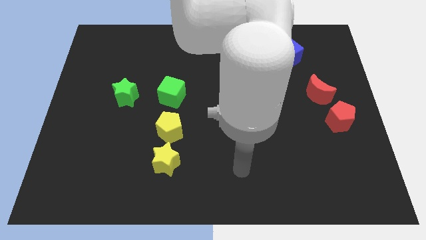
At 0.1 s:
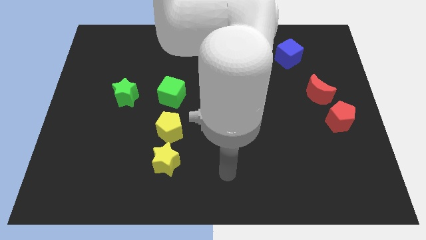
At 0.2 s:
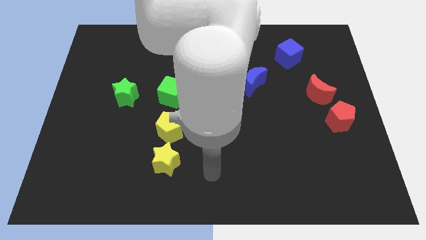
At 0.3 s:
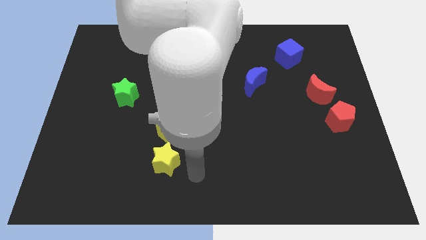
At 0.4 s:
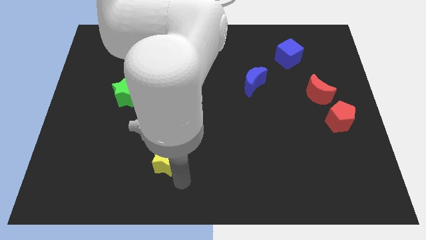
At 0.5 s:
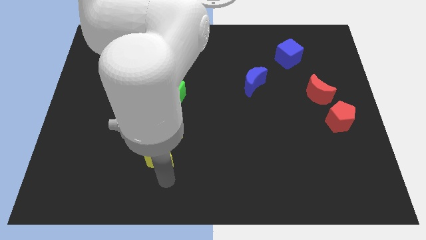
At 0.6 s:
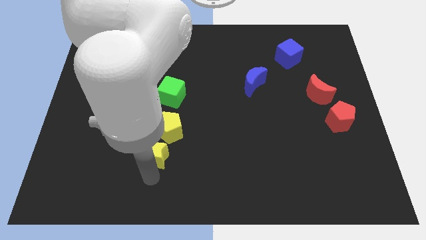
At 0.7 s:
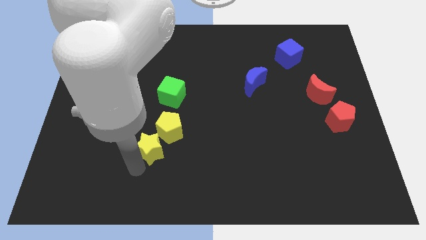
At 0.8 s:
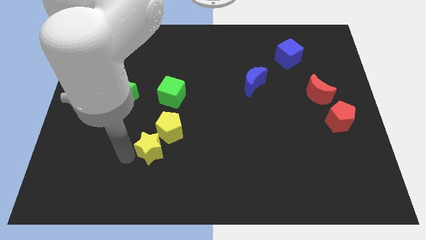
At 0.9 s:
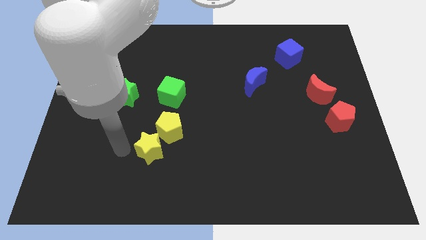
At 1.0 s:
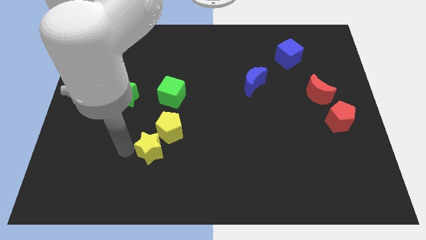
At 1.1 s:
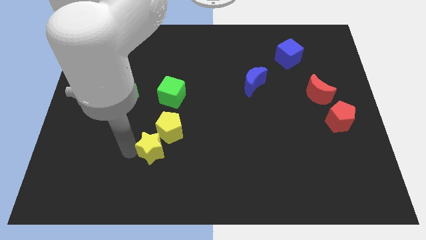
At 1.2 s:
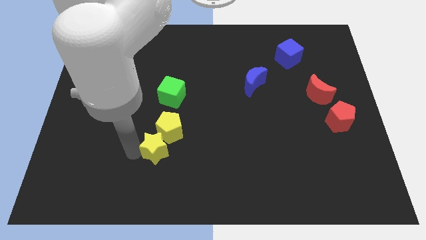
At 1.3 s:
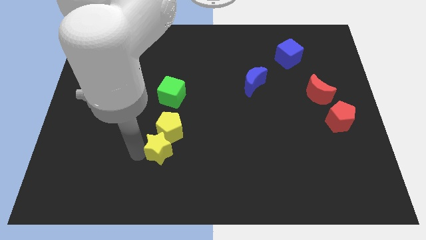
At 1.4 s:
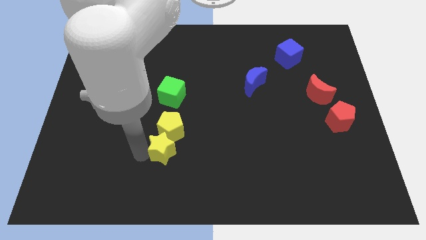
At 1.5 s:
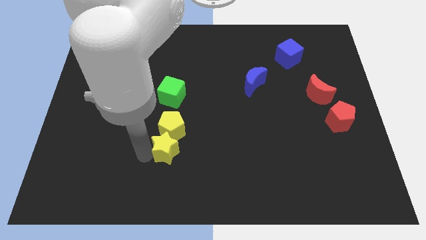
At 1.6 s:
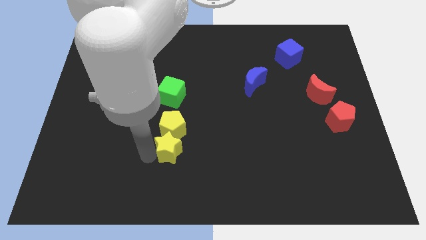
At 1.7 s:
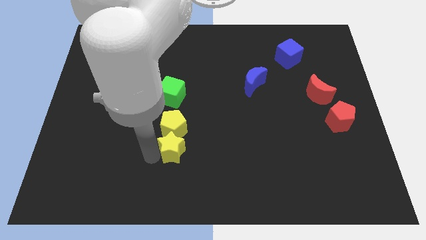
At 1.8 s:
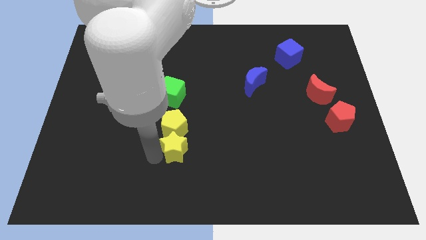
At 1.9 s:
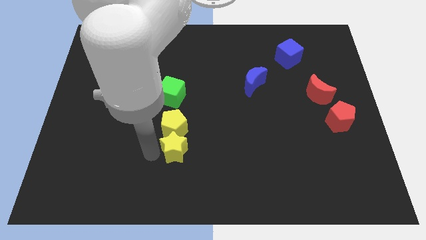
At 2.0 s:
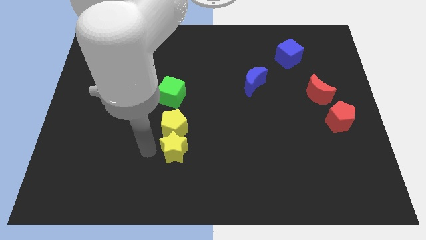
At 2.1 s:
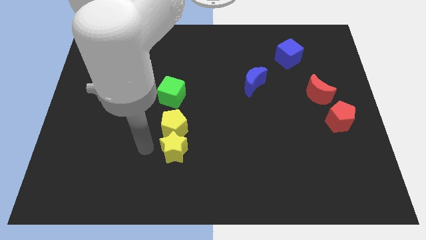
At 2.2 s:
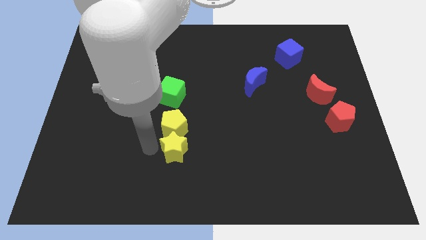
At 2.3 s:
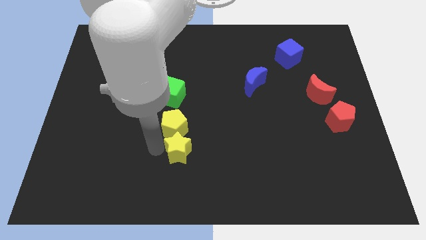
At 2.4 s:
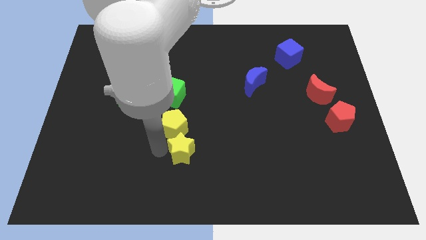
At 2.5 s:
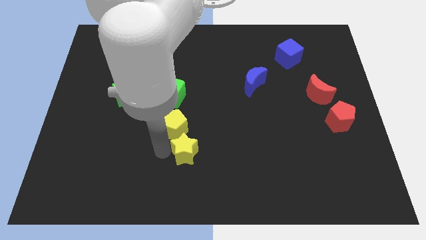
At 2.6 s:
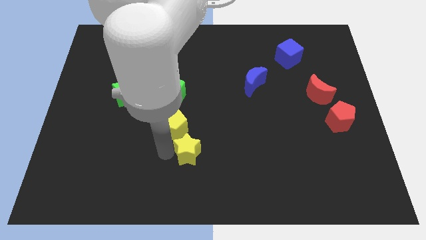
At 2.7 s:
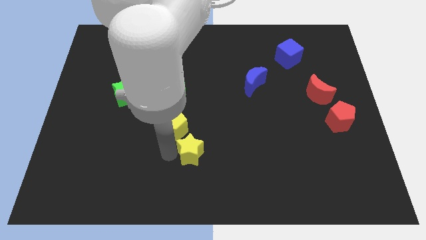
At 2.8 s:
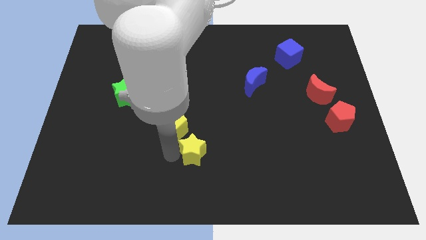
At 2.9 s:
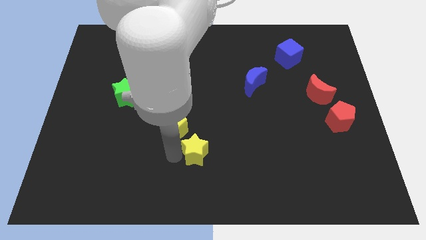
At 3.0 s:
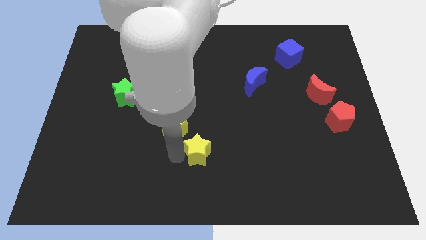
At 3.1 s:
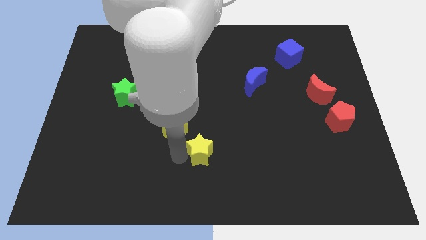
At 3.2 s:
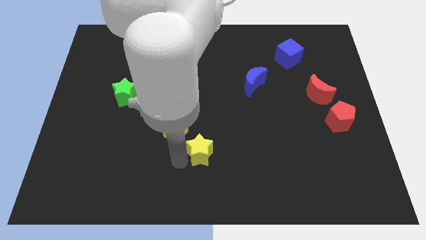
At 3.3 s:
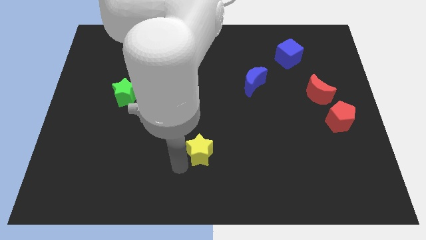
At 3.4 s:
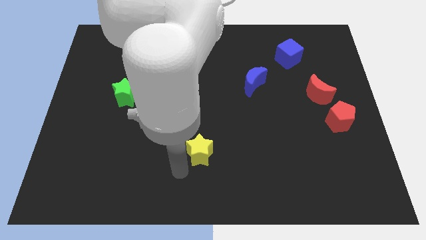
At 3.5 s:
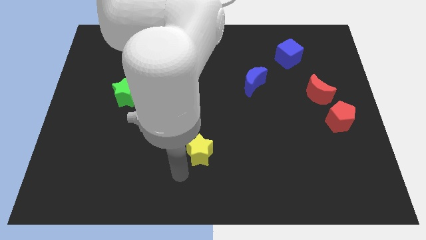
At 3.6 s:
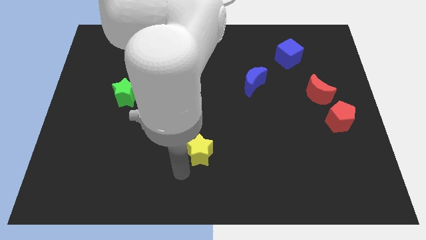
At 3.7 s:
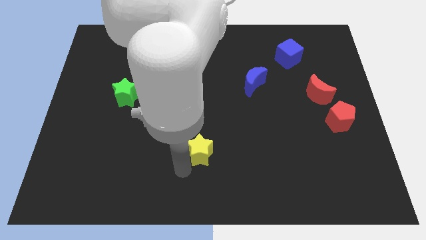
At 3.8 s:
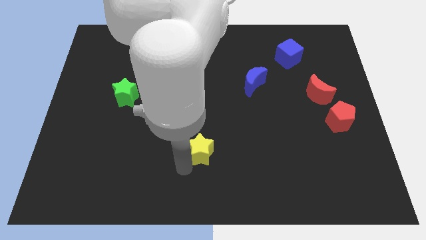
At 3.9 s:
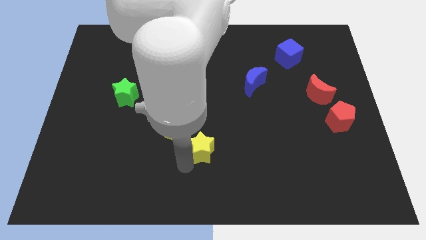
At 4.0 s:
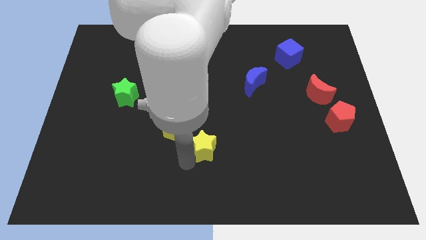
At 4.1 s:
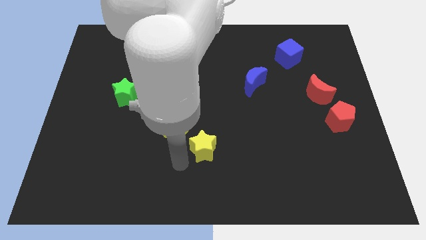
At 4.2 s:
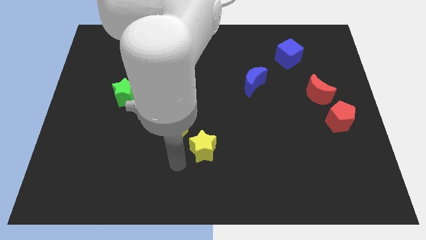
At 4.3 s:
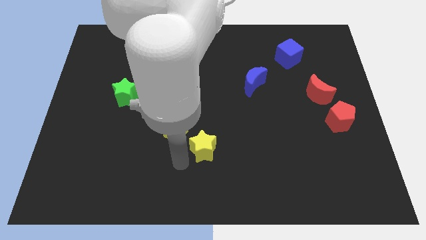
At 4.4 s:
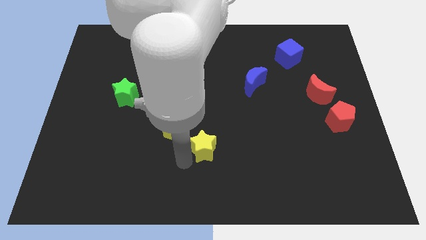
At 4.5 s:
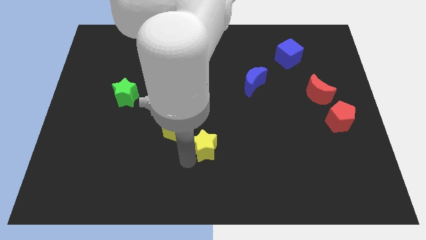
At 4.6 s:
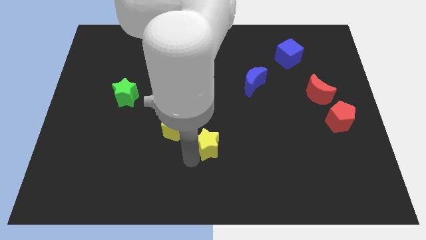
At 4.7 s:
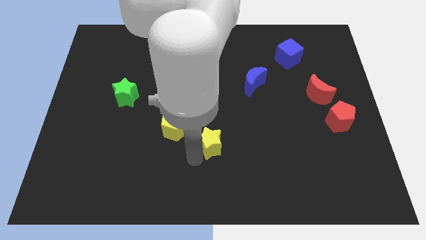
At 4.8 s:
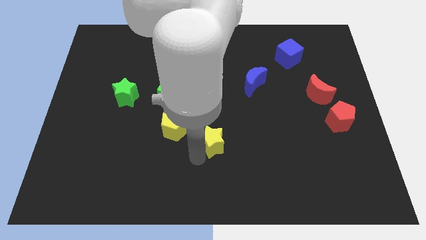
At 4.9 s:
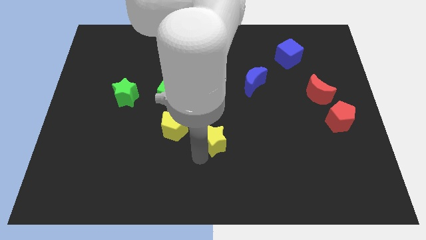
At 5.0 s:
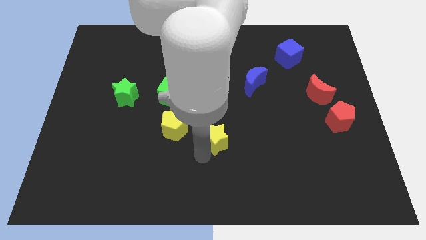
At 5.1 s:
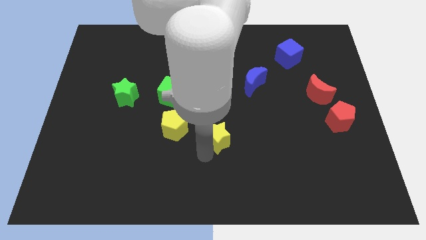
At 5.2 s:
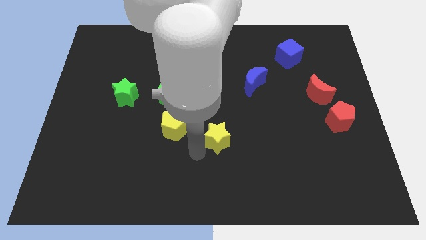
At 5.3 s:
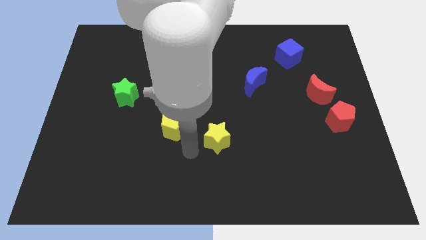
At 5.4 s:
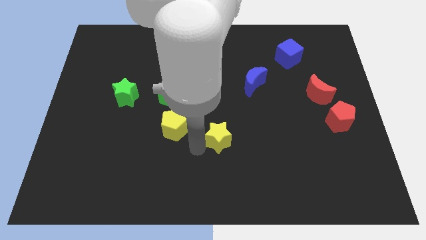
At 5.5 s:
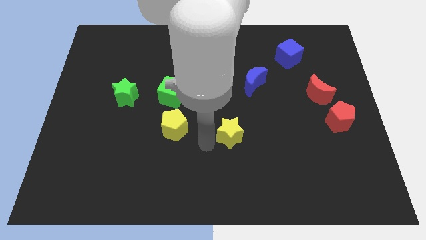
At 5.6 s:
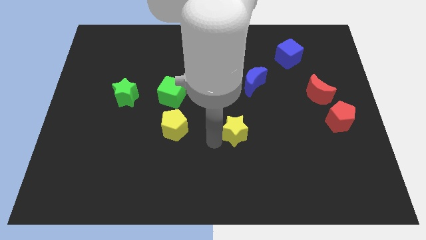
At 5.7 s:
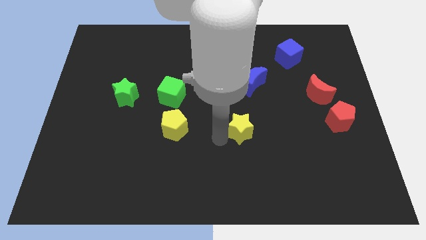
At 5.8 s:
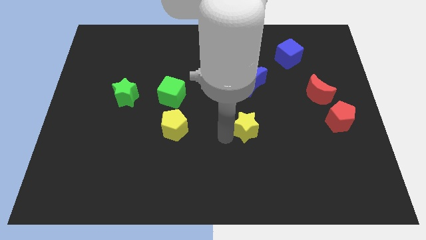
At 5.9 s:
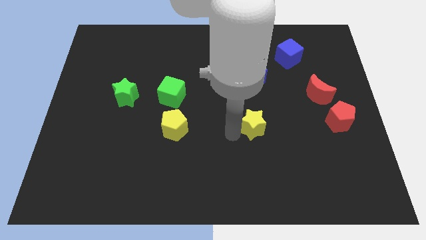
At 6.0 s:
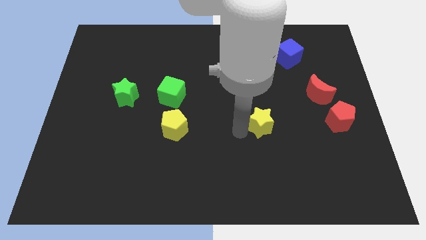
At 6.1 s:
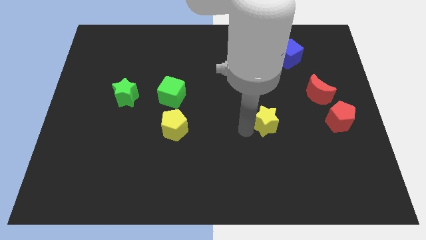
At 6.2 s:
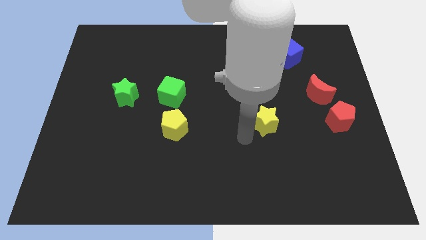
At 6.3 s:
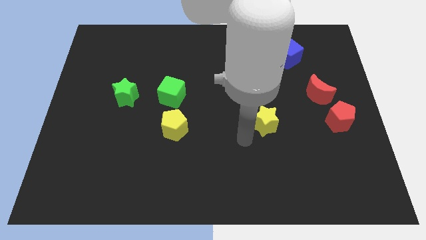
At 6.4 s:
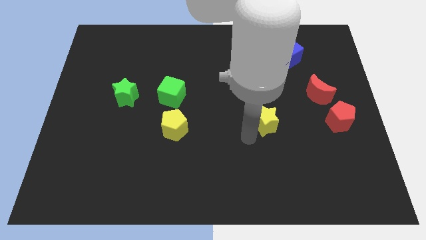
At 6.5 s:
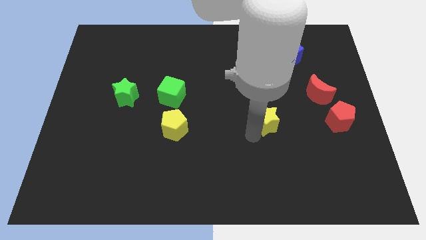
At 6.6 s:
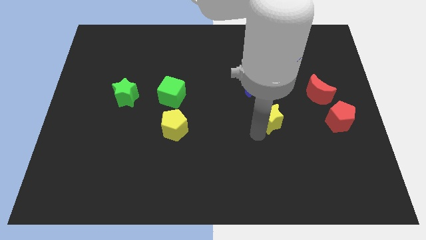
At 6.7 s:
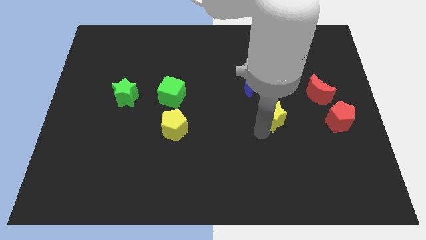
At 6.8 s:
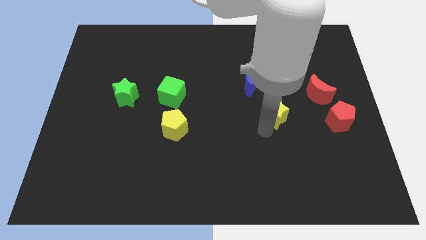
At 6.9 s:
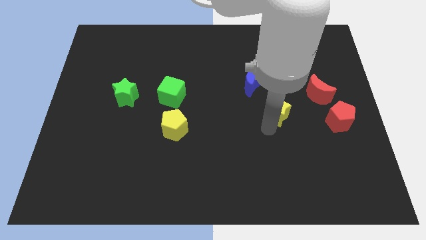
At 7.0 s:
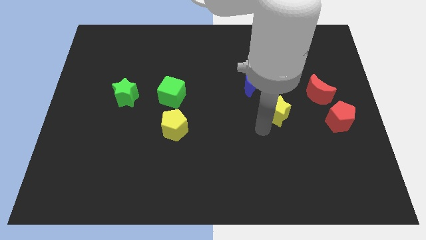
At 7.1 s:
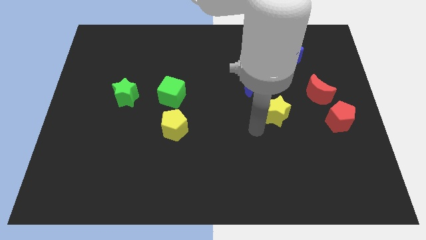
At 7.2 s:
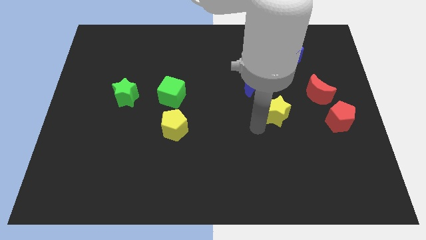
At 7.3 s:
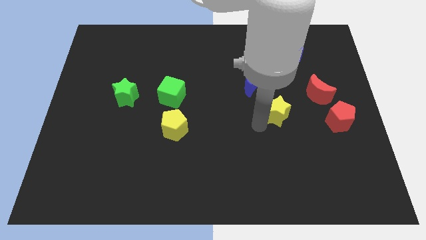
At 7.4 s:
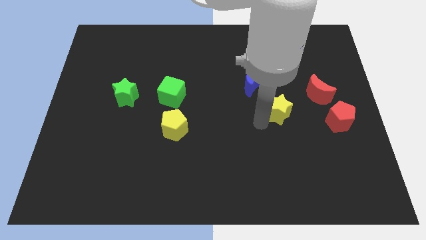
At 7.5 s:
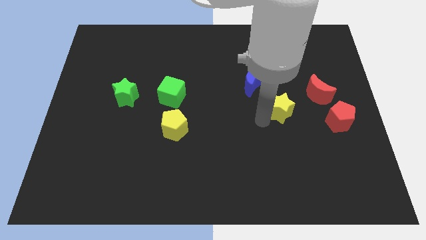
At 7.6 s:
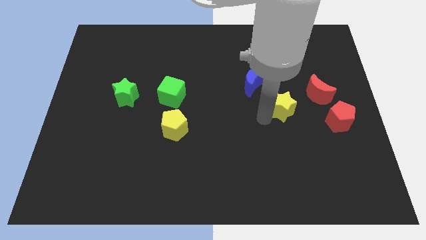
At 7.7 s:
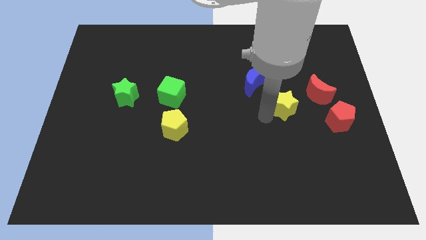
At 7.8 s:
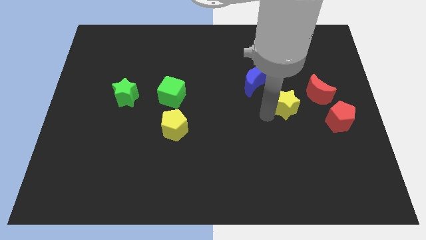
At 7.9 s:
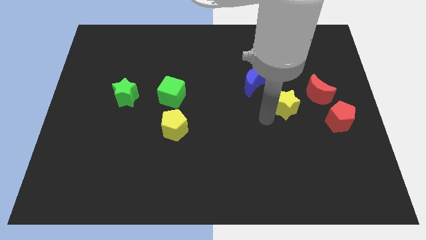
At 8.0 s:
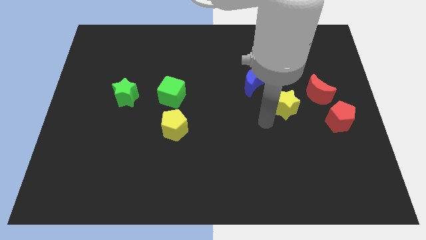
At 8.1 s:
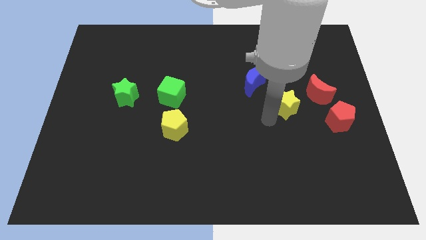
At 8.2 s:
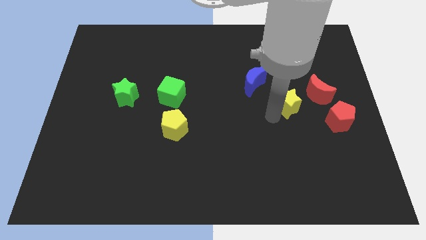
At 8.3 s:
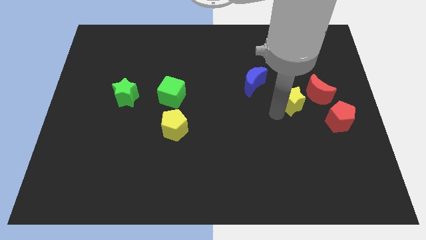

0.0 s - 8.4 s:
slide the yellow star to the top left side of the red pentagon
